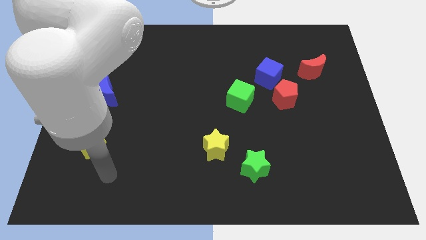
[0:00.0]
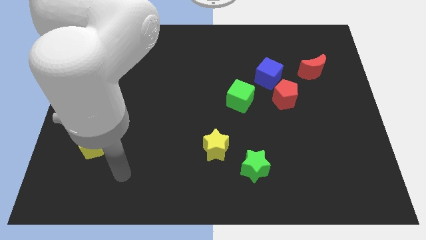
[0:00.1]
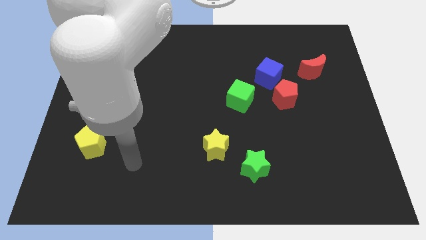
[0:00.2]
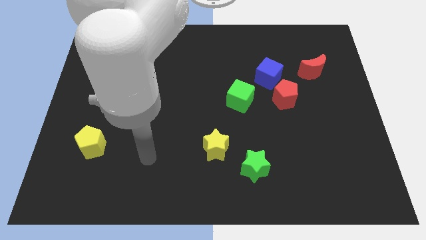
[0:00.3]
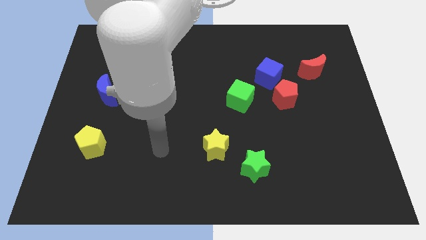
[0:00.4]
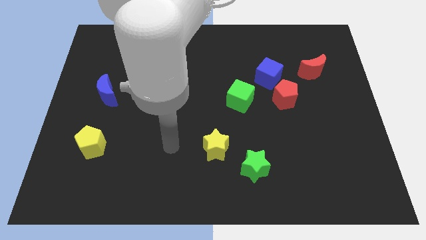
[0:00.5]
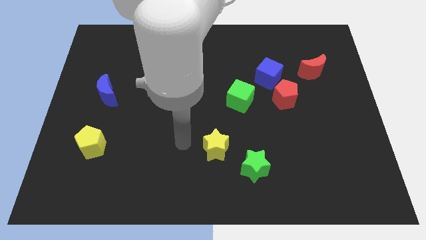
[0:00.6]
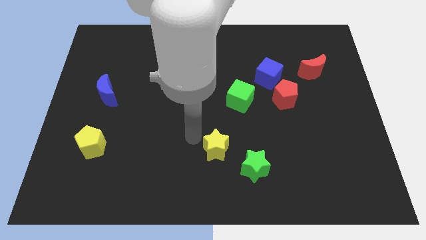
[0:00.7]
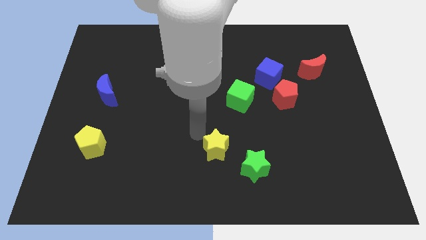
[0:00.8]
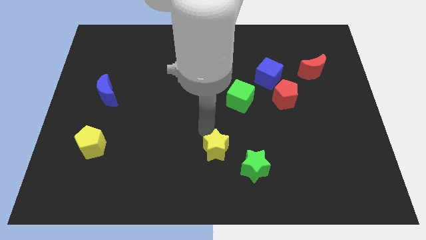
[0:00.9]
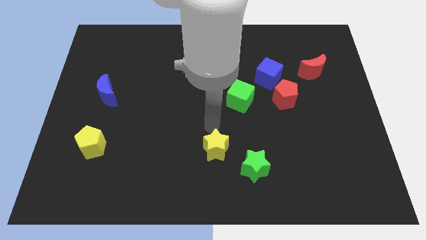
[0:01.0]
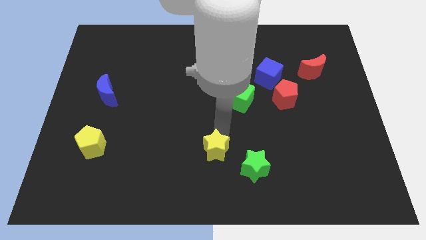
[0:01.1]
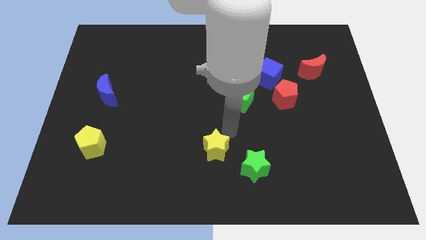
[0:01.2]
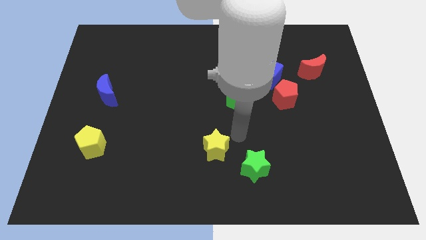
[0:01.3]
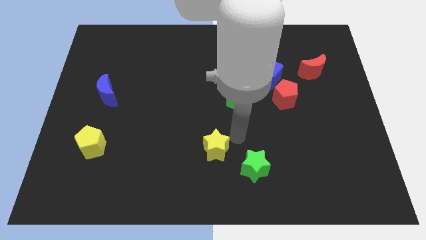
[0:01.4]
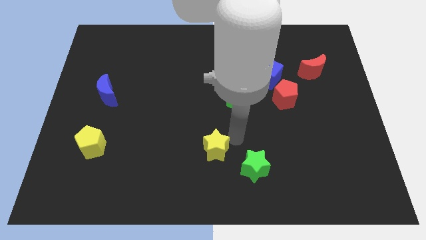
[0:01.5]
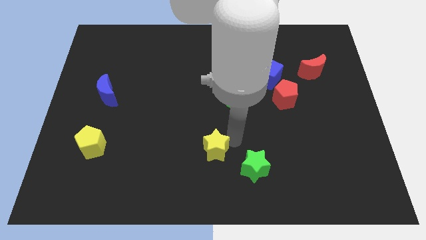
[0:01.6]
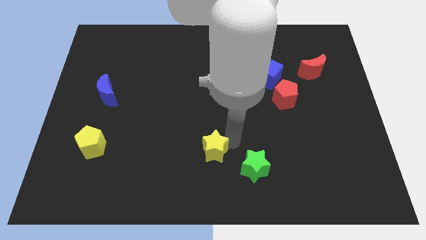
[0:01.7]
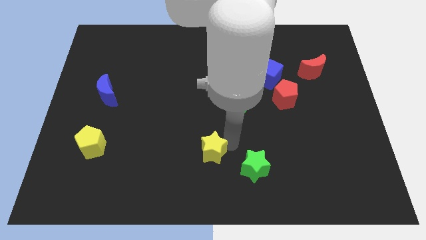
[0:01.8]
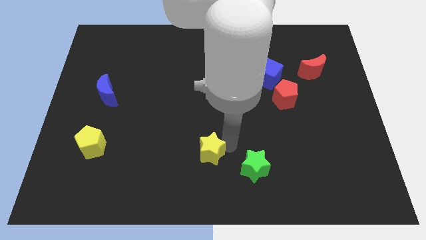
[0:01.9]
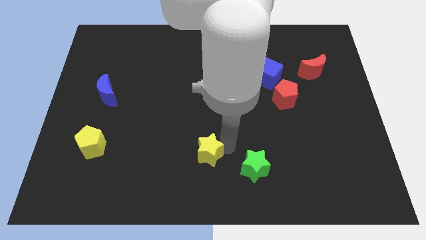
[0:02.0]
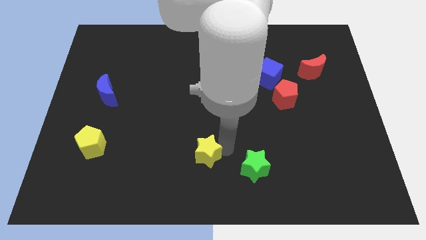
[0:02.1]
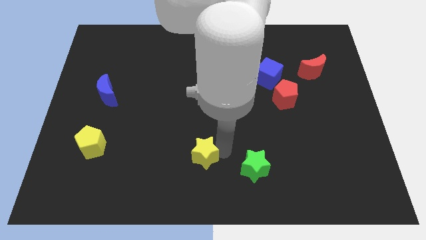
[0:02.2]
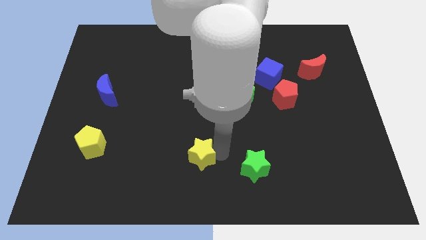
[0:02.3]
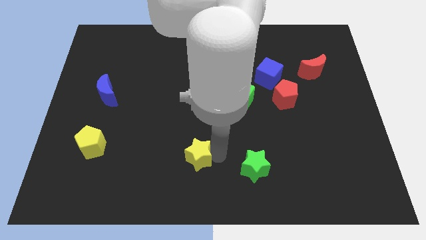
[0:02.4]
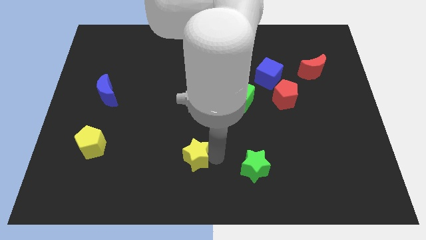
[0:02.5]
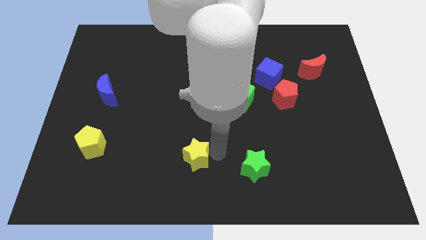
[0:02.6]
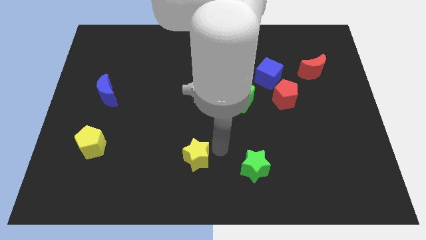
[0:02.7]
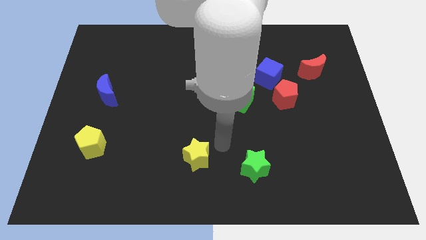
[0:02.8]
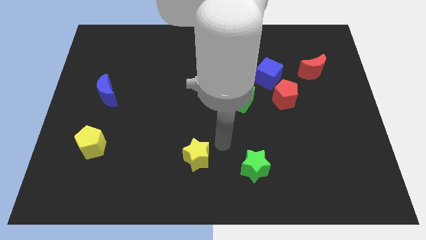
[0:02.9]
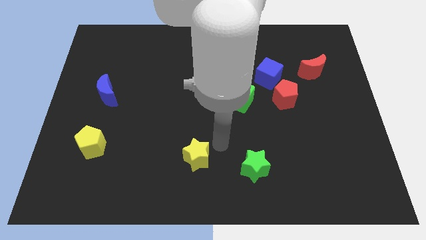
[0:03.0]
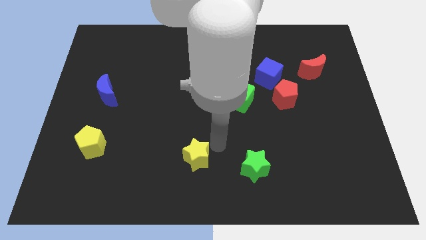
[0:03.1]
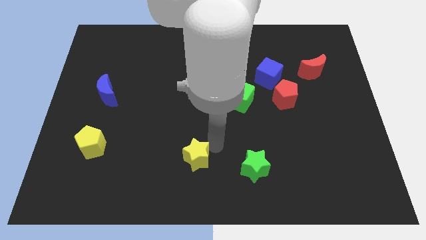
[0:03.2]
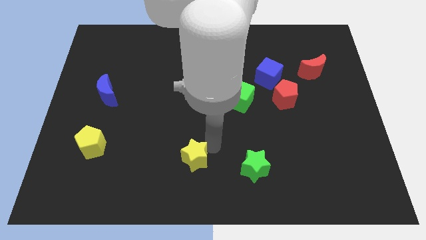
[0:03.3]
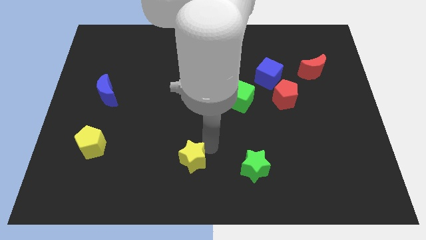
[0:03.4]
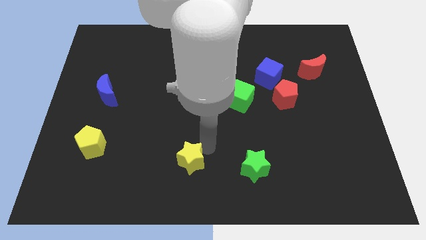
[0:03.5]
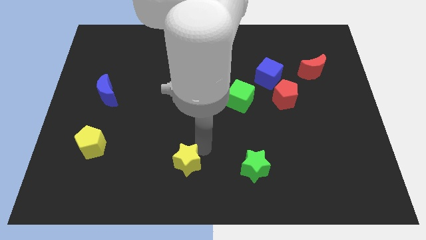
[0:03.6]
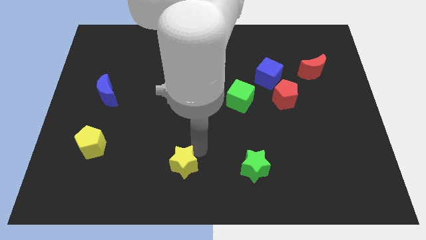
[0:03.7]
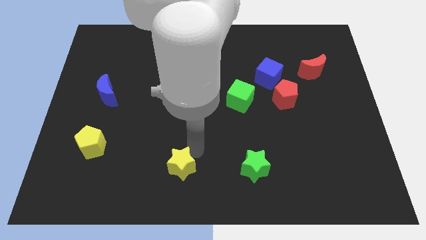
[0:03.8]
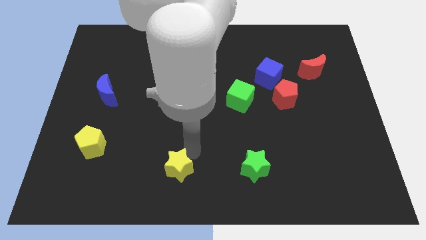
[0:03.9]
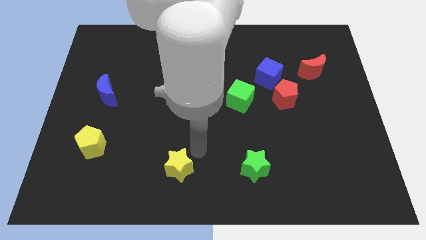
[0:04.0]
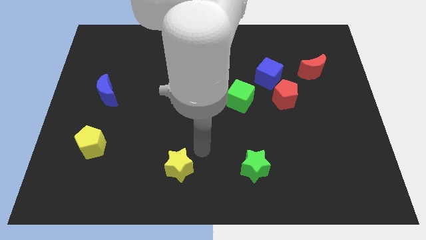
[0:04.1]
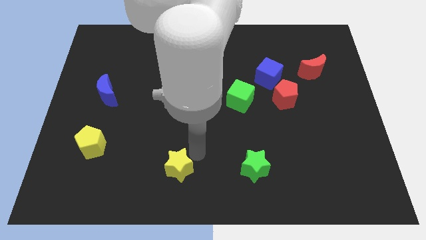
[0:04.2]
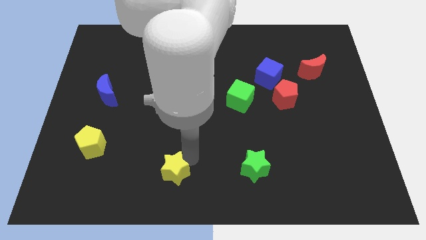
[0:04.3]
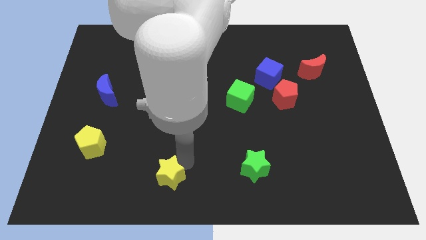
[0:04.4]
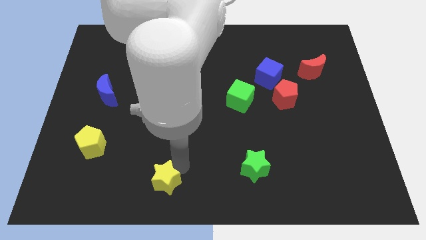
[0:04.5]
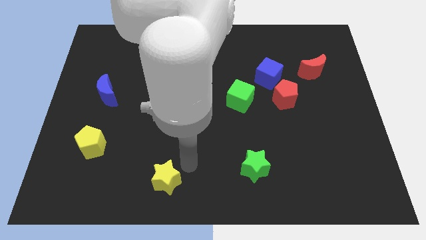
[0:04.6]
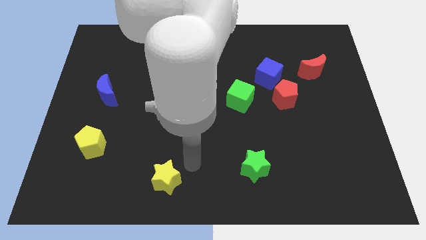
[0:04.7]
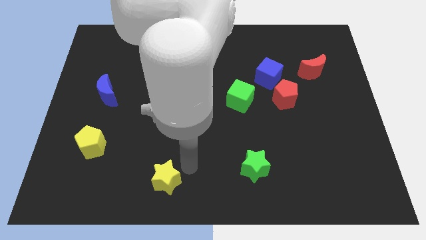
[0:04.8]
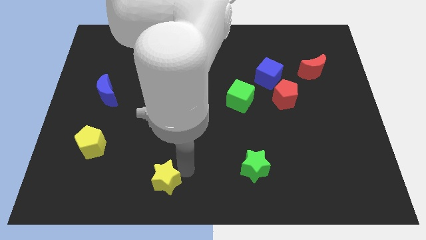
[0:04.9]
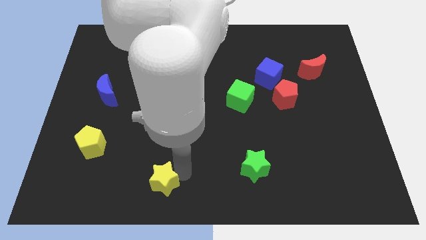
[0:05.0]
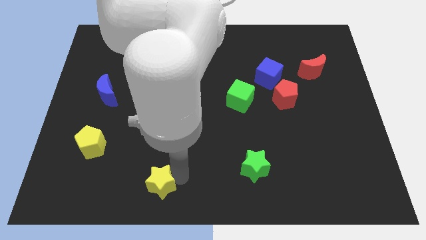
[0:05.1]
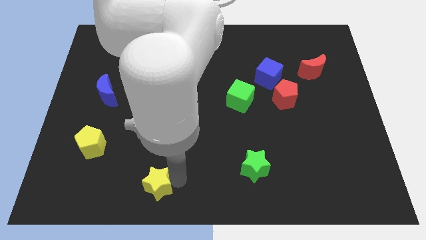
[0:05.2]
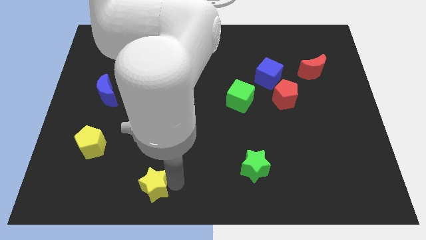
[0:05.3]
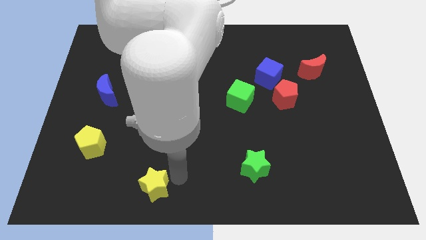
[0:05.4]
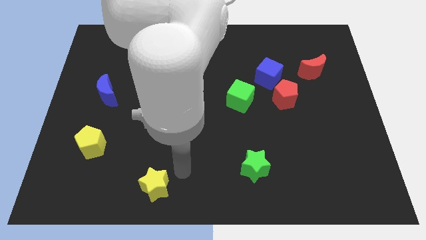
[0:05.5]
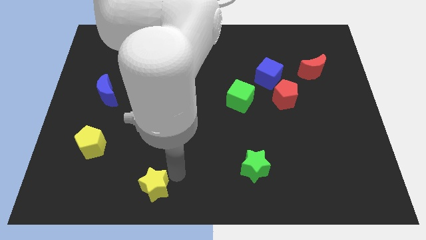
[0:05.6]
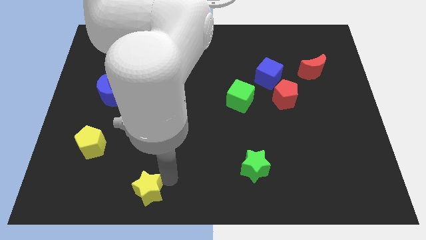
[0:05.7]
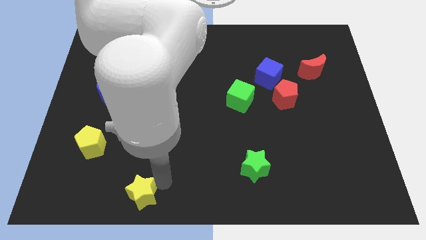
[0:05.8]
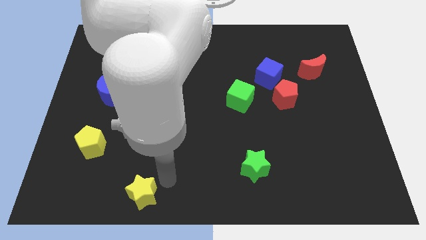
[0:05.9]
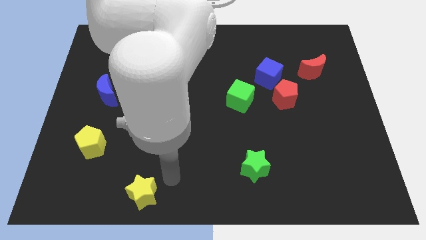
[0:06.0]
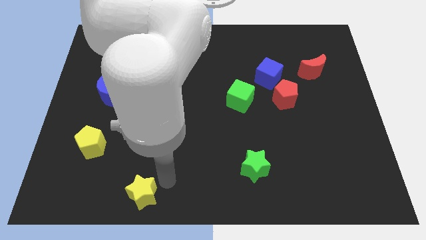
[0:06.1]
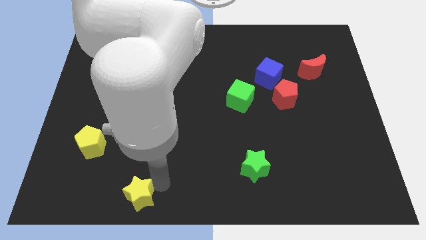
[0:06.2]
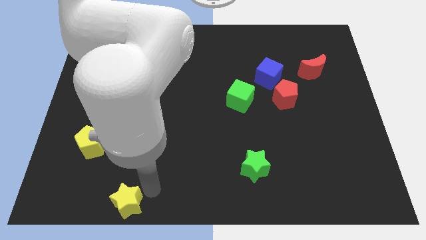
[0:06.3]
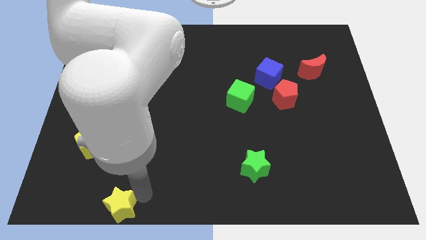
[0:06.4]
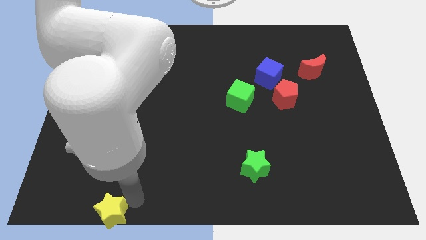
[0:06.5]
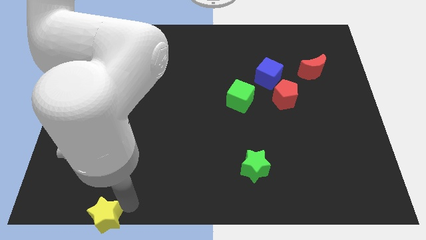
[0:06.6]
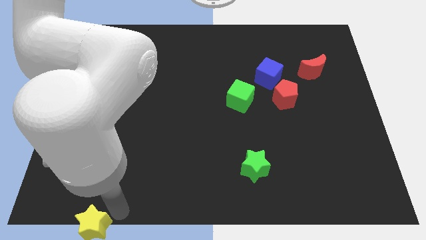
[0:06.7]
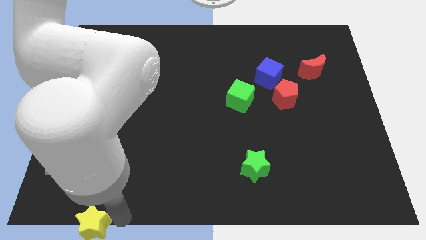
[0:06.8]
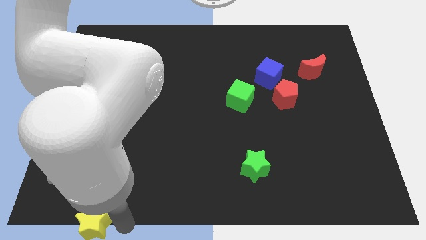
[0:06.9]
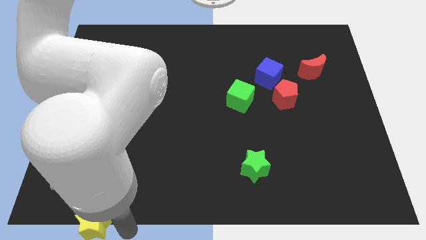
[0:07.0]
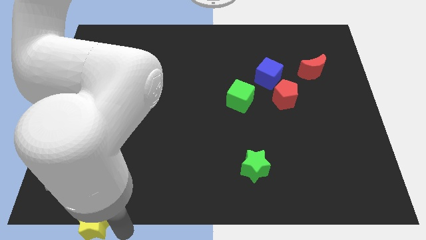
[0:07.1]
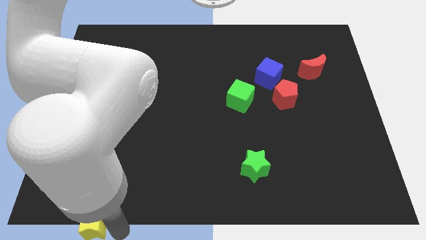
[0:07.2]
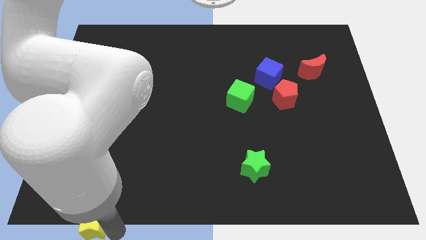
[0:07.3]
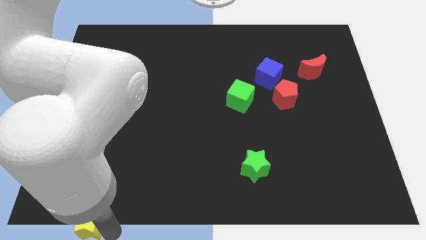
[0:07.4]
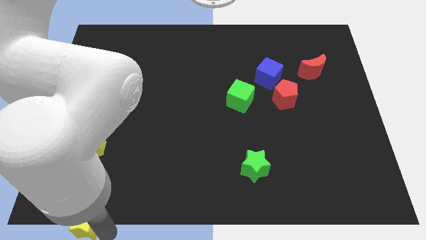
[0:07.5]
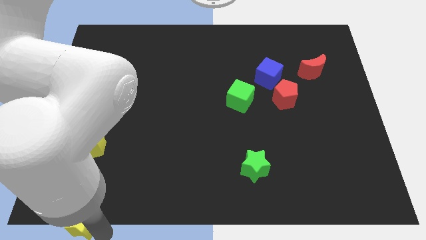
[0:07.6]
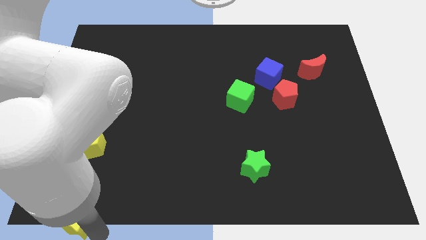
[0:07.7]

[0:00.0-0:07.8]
put the yellow star to the lower left corner
